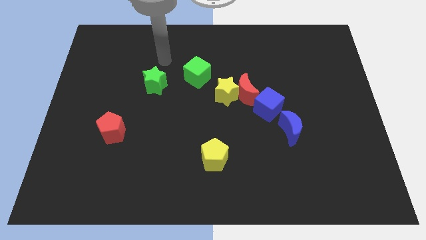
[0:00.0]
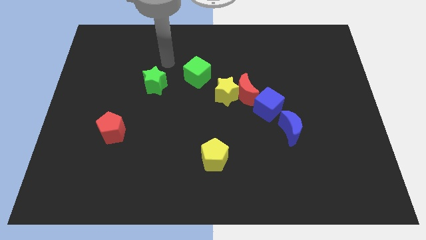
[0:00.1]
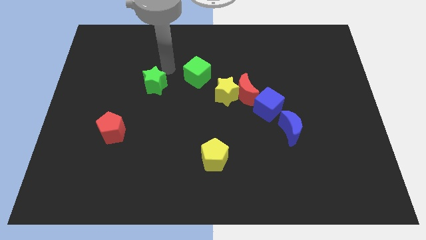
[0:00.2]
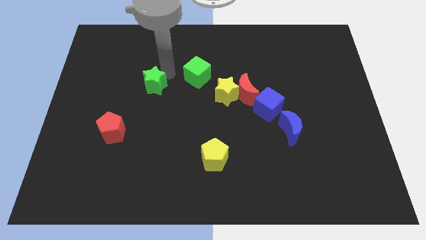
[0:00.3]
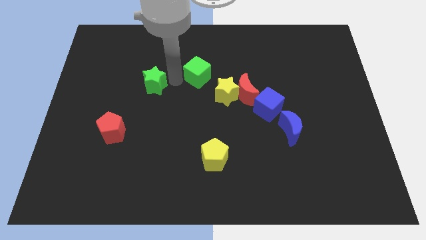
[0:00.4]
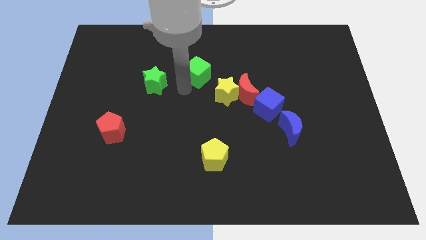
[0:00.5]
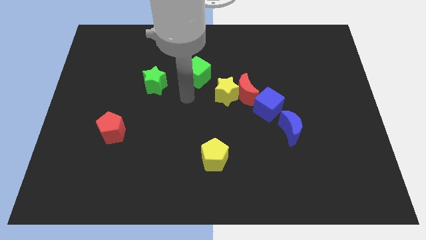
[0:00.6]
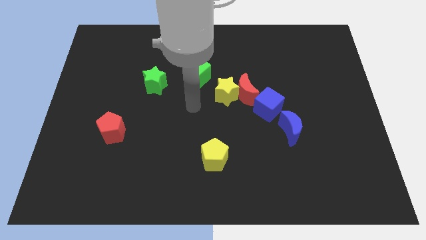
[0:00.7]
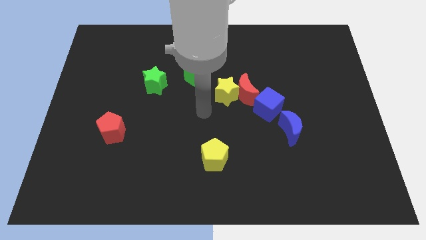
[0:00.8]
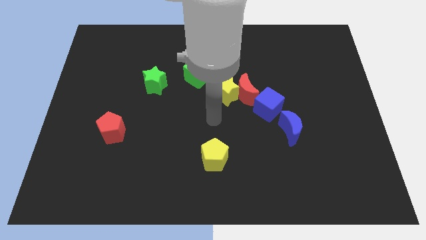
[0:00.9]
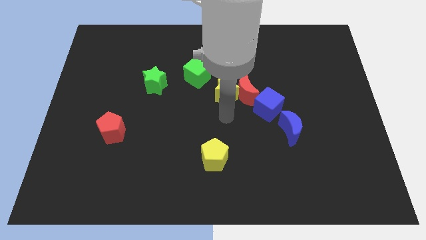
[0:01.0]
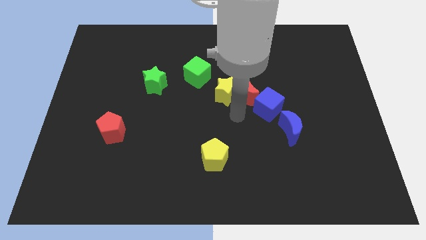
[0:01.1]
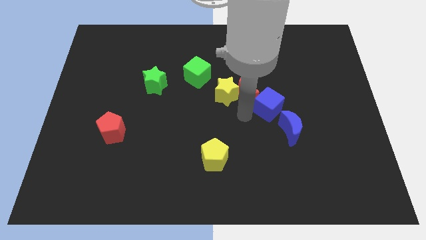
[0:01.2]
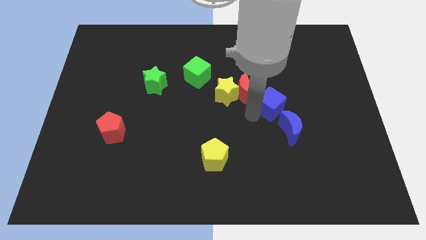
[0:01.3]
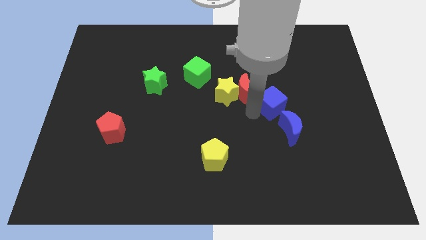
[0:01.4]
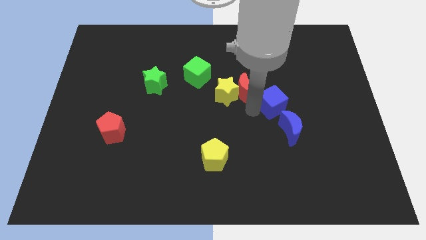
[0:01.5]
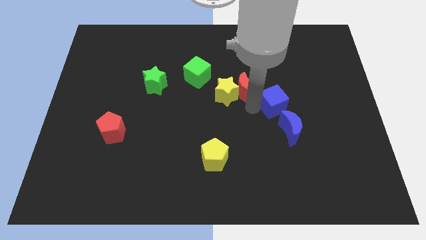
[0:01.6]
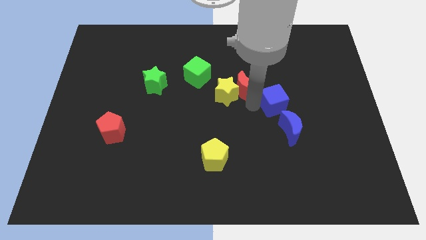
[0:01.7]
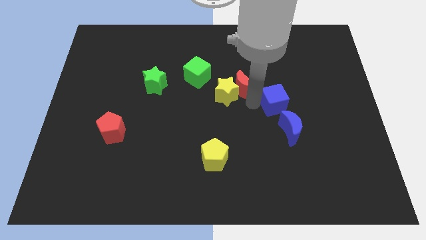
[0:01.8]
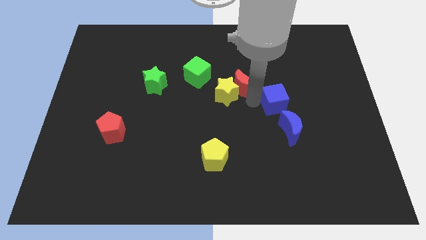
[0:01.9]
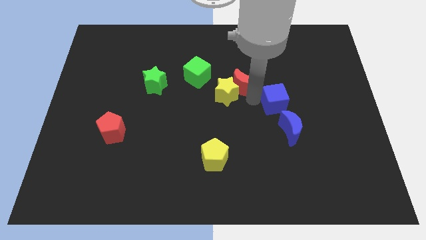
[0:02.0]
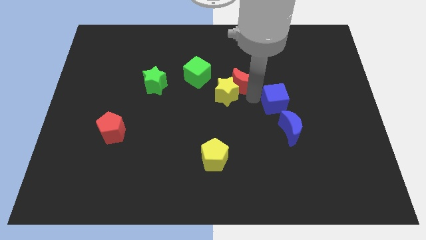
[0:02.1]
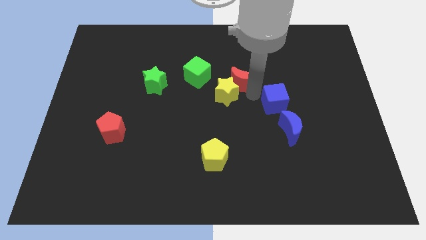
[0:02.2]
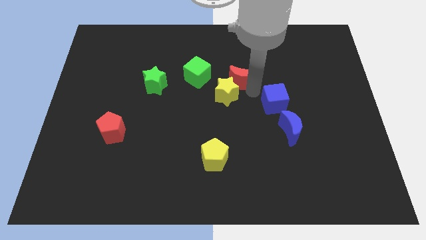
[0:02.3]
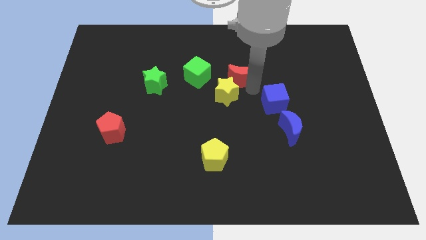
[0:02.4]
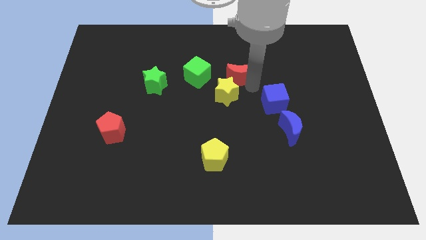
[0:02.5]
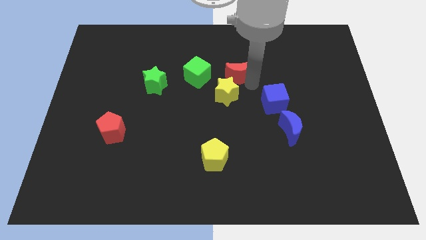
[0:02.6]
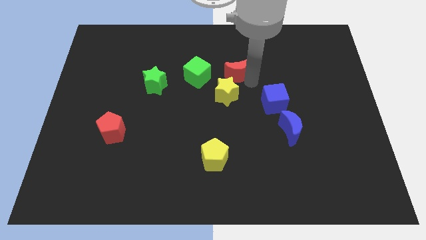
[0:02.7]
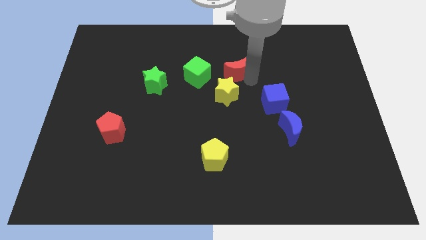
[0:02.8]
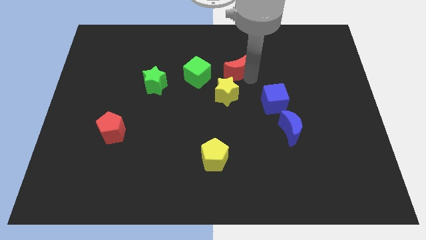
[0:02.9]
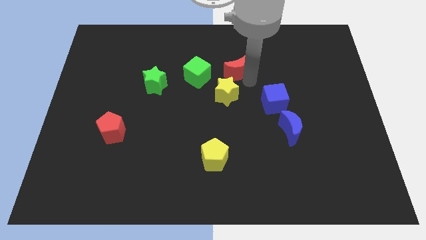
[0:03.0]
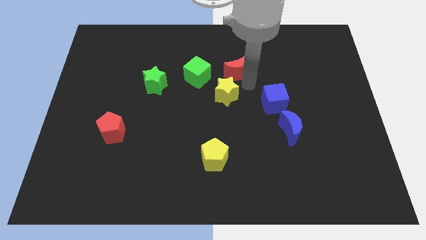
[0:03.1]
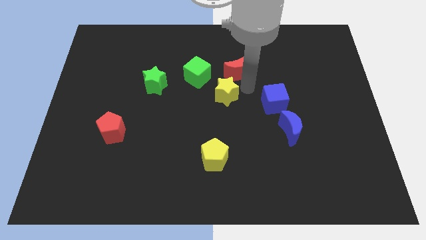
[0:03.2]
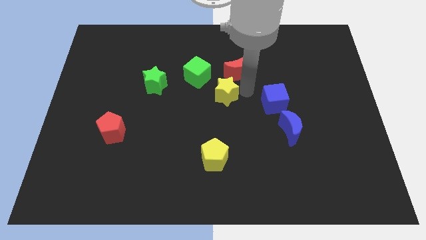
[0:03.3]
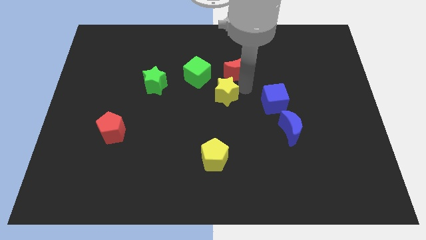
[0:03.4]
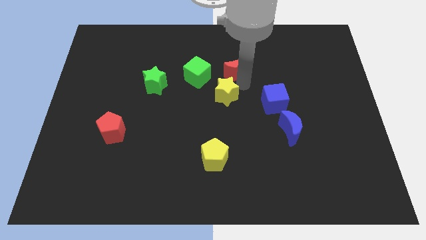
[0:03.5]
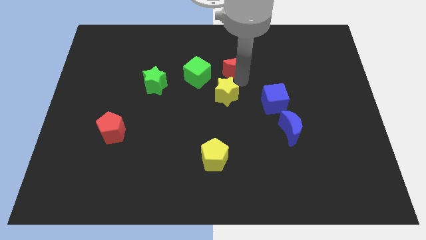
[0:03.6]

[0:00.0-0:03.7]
move the red moon away from the yellow star and blue cube

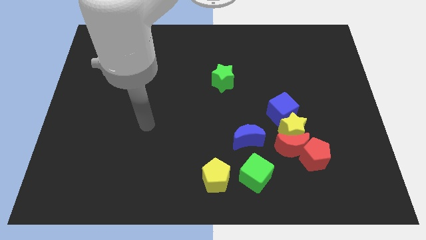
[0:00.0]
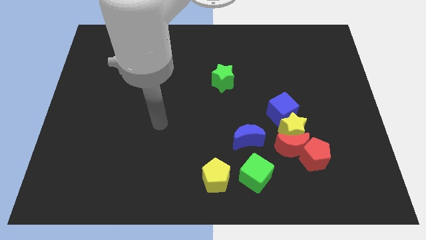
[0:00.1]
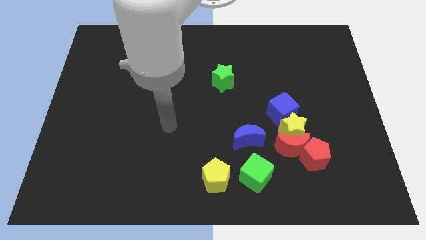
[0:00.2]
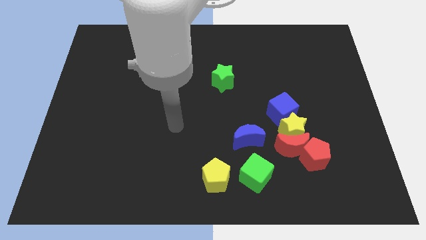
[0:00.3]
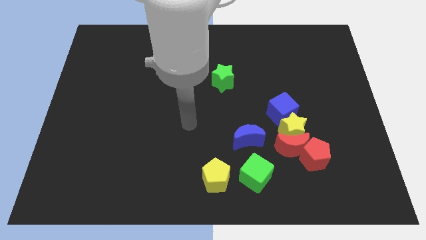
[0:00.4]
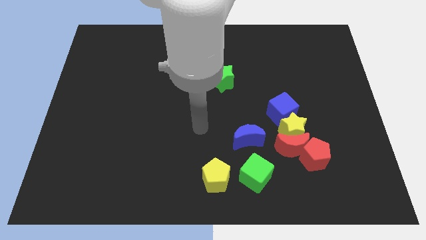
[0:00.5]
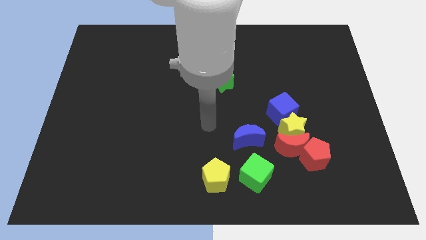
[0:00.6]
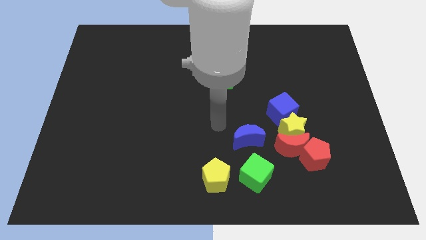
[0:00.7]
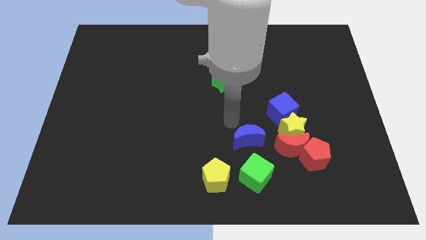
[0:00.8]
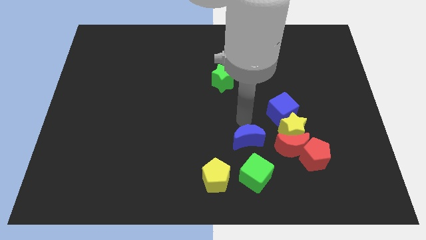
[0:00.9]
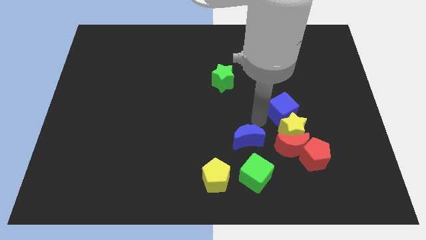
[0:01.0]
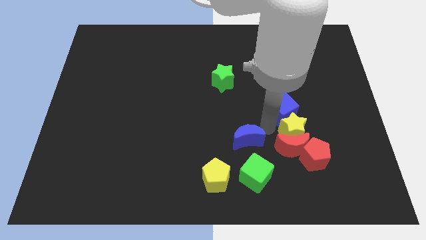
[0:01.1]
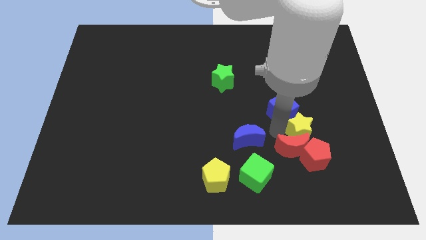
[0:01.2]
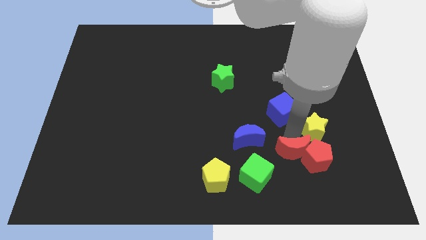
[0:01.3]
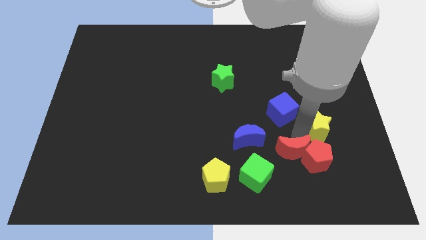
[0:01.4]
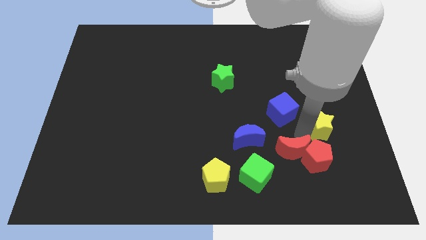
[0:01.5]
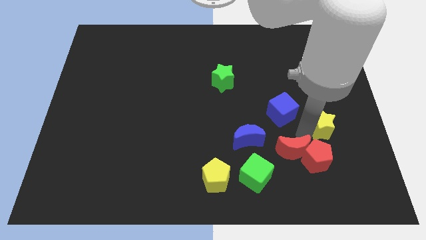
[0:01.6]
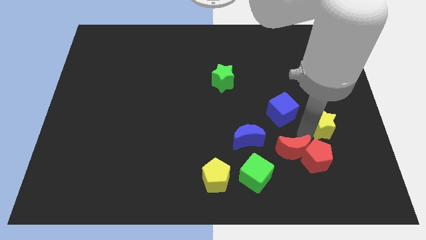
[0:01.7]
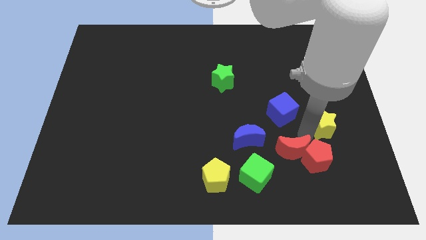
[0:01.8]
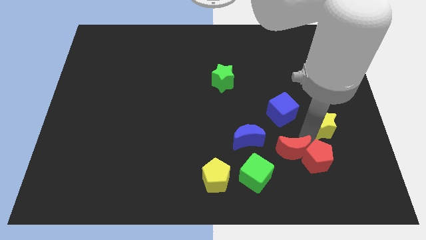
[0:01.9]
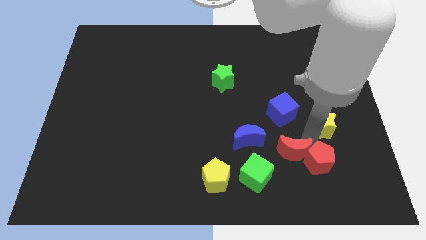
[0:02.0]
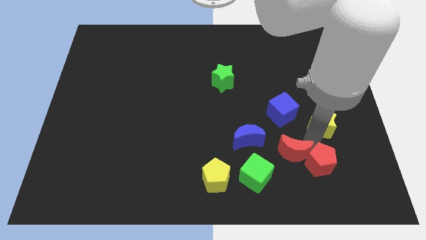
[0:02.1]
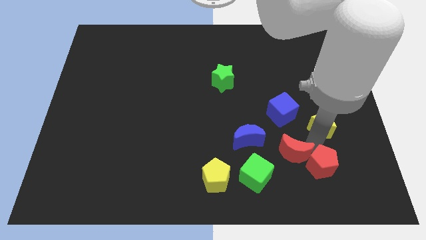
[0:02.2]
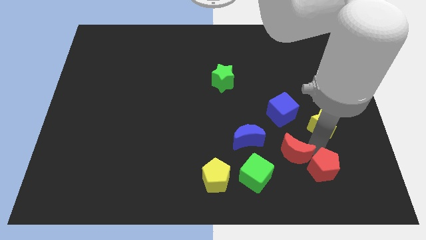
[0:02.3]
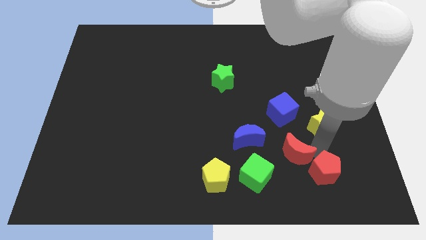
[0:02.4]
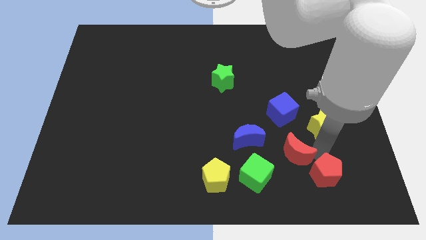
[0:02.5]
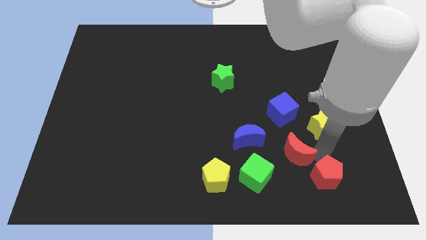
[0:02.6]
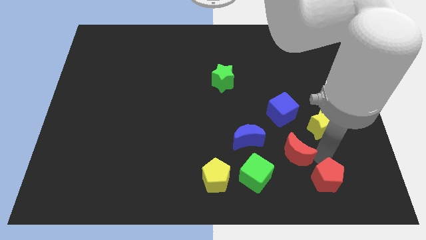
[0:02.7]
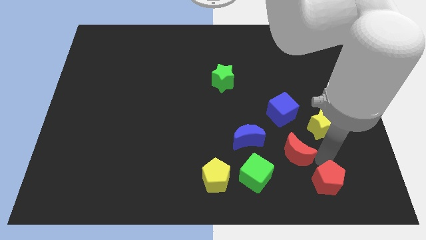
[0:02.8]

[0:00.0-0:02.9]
separate the red pentagon from the red moon and yellow star

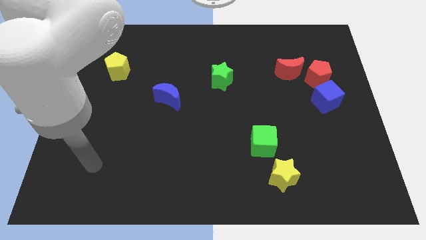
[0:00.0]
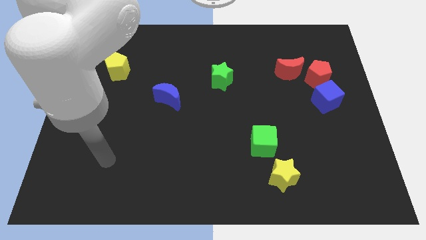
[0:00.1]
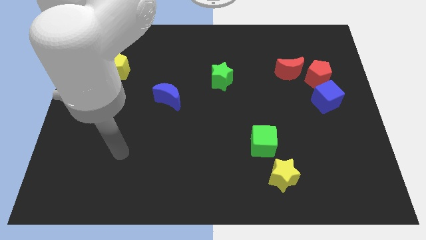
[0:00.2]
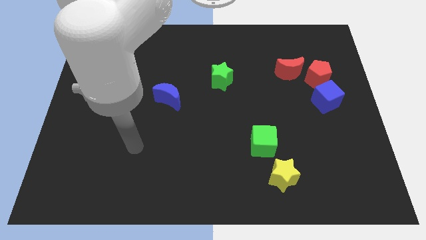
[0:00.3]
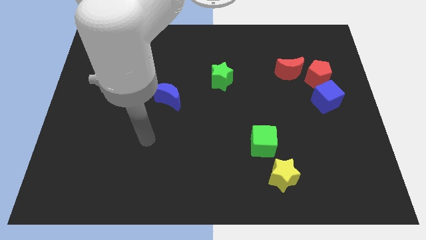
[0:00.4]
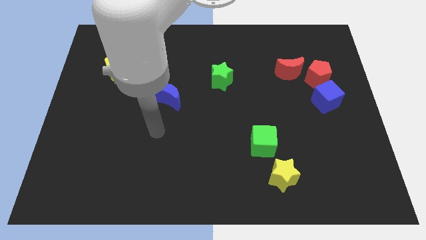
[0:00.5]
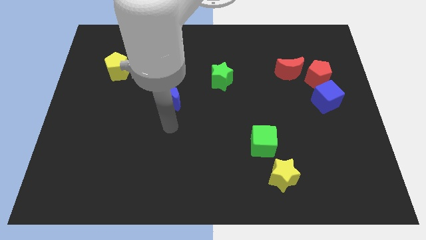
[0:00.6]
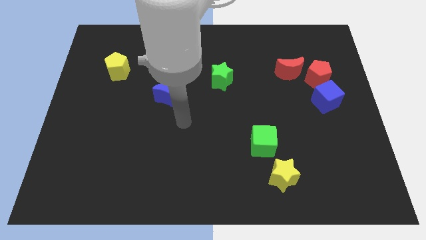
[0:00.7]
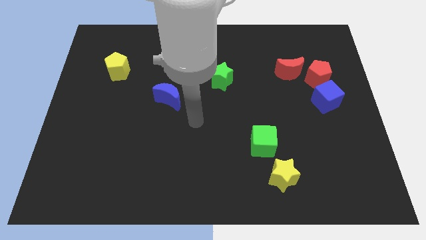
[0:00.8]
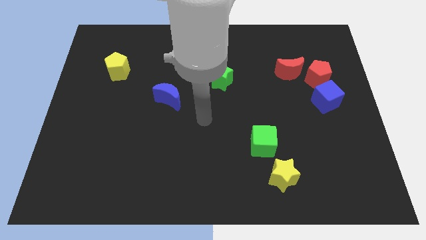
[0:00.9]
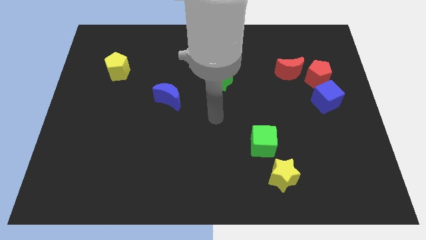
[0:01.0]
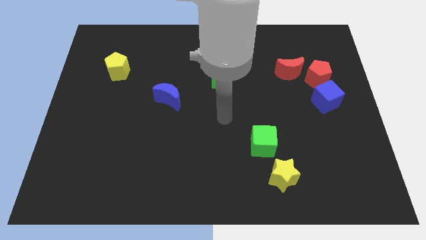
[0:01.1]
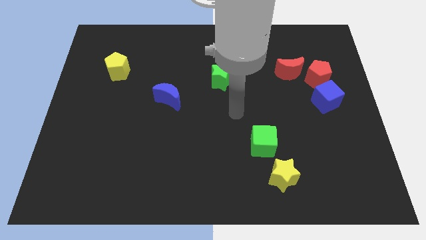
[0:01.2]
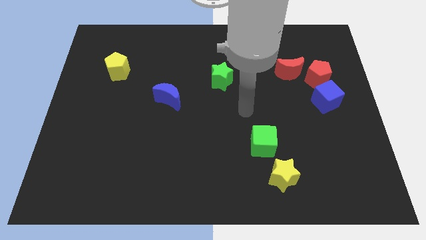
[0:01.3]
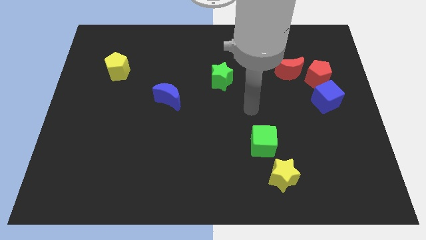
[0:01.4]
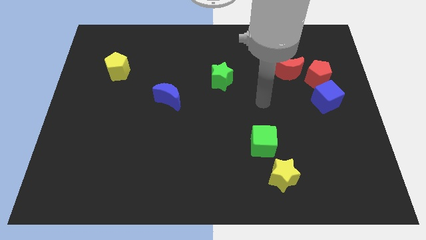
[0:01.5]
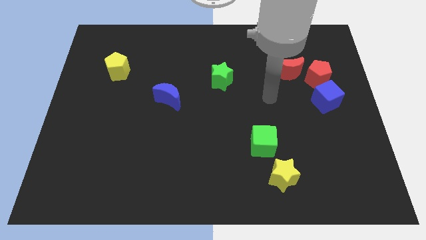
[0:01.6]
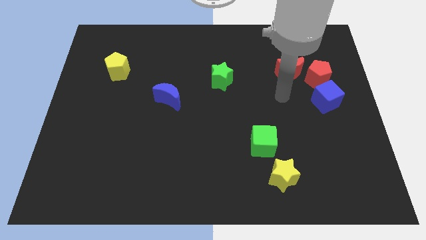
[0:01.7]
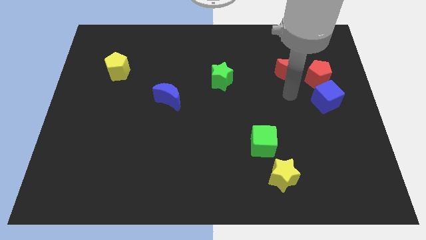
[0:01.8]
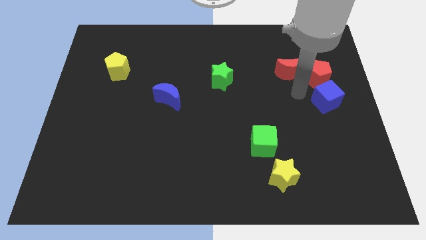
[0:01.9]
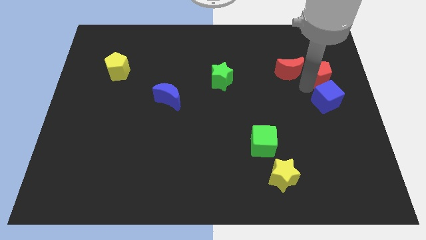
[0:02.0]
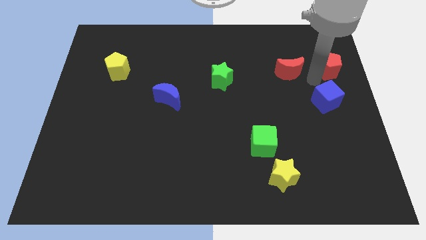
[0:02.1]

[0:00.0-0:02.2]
separate the red moon from the red pentagon

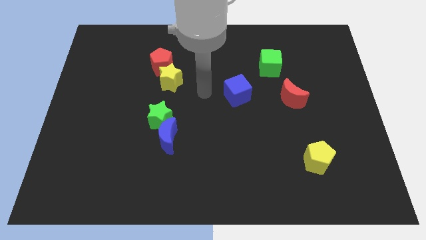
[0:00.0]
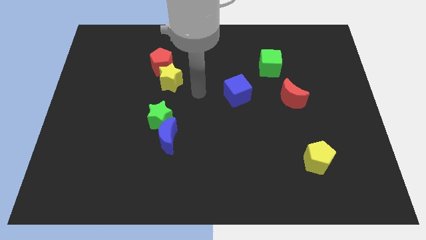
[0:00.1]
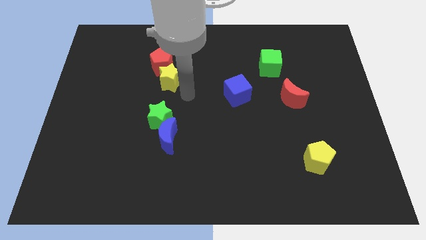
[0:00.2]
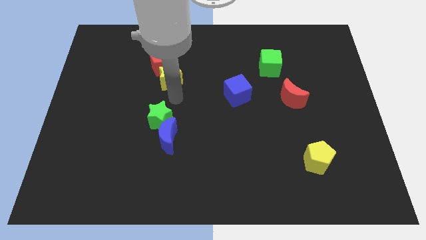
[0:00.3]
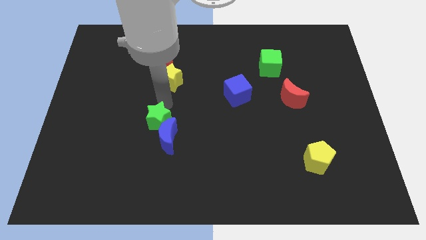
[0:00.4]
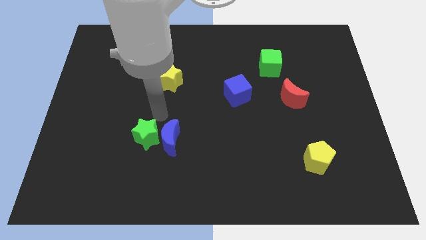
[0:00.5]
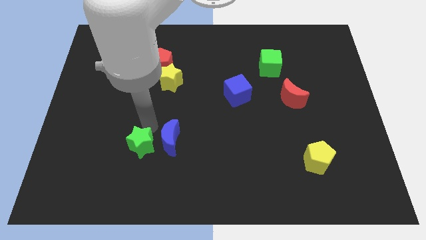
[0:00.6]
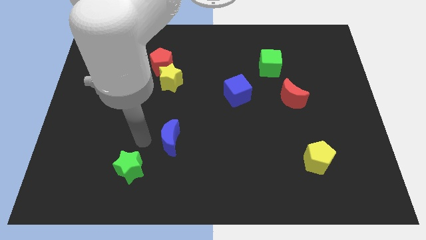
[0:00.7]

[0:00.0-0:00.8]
move the blue moon away from the green star
